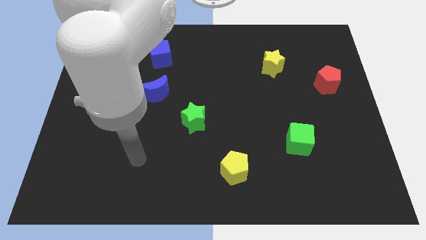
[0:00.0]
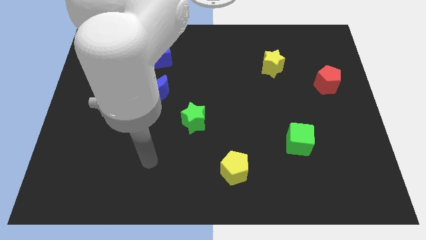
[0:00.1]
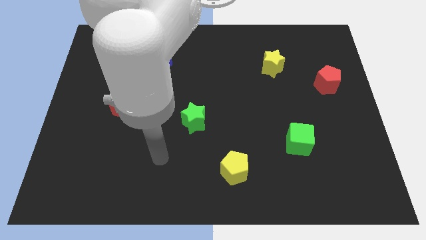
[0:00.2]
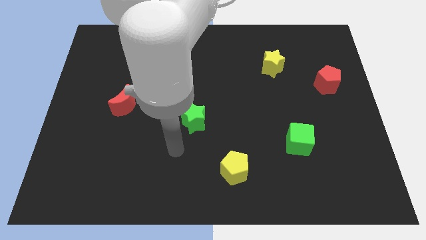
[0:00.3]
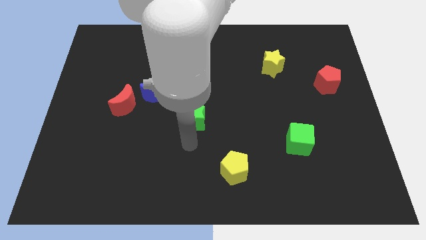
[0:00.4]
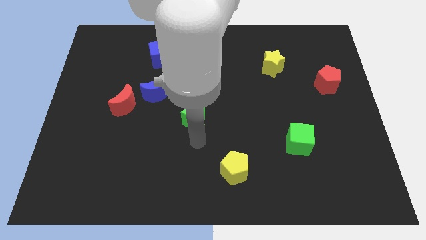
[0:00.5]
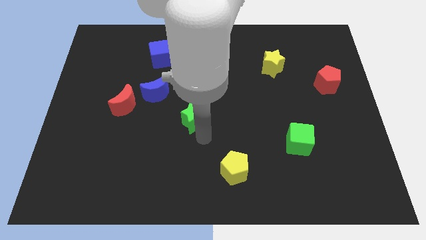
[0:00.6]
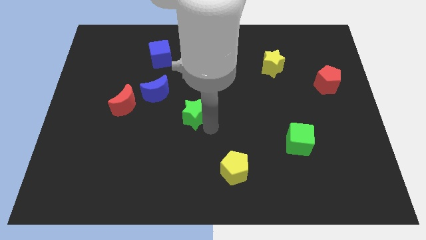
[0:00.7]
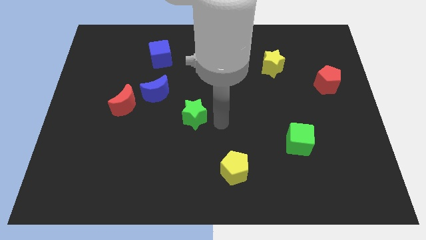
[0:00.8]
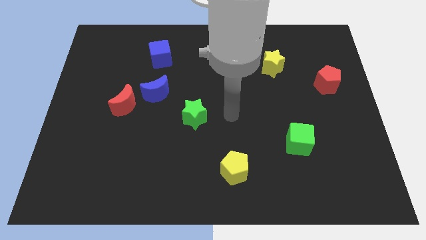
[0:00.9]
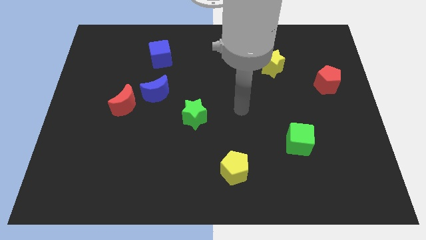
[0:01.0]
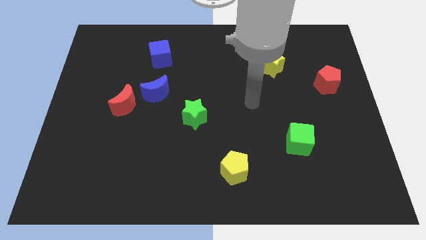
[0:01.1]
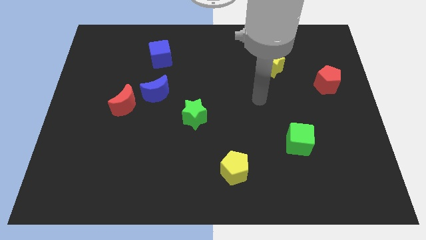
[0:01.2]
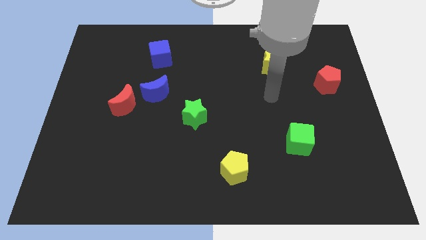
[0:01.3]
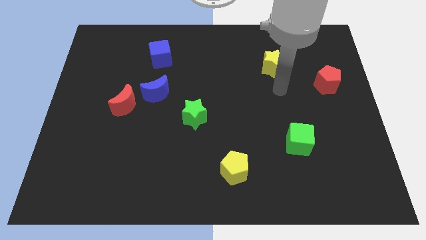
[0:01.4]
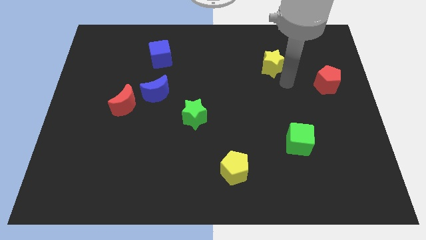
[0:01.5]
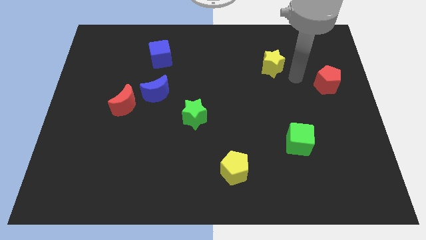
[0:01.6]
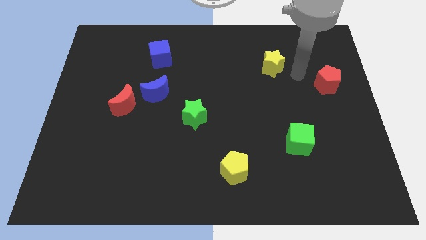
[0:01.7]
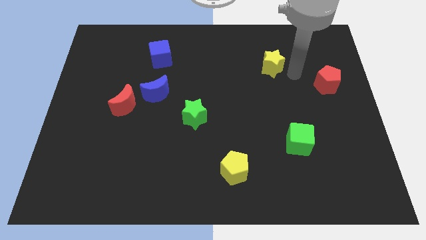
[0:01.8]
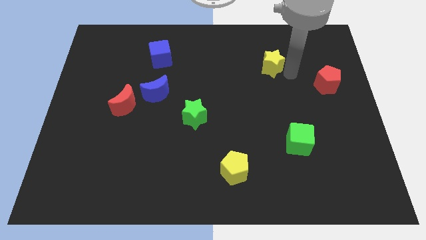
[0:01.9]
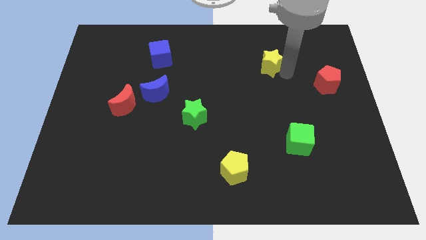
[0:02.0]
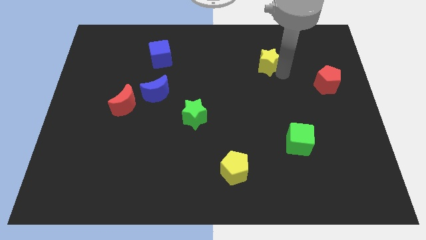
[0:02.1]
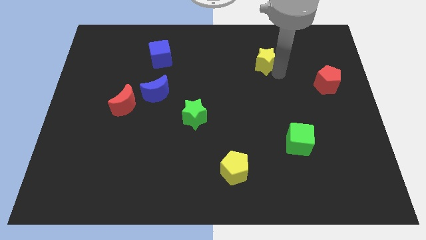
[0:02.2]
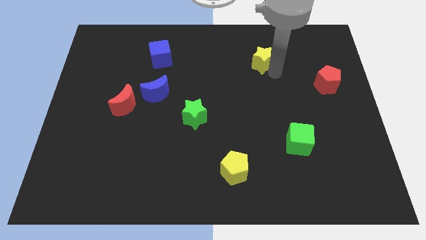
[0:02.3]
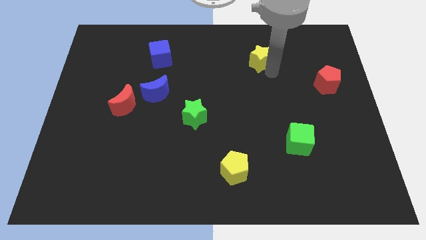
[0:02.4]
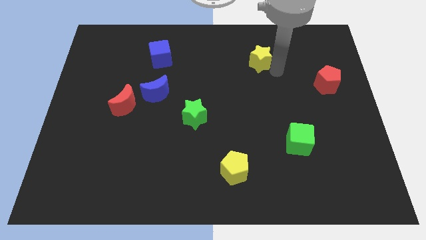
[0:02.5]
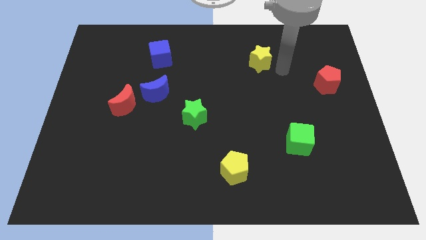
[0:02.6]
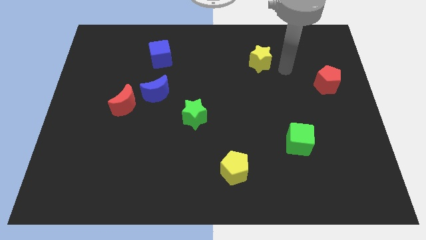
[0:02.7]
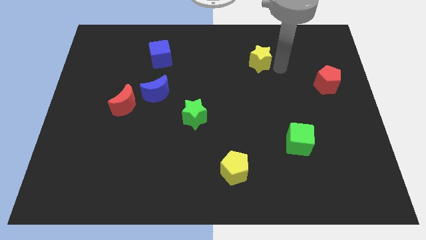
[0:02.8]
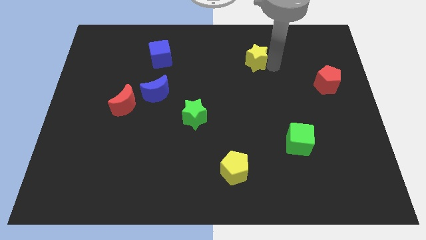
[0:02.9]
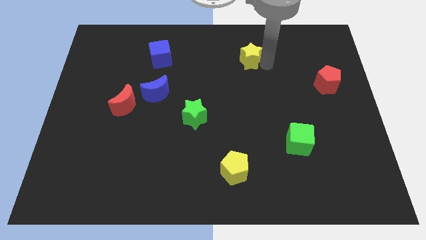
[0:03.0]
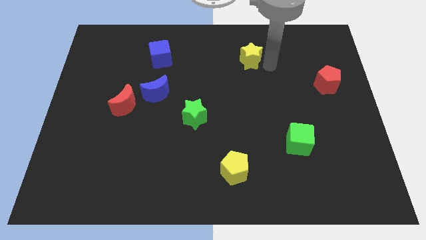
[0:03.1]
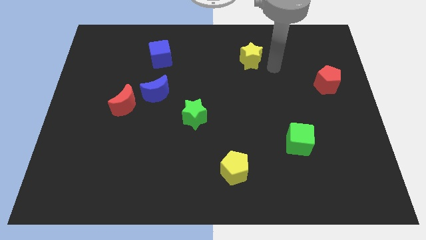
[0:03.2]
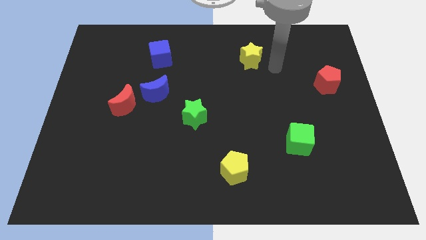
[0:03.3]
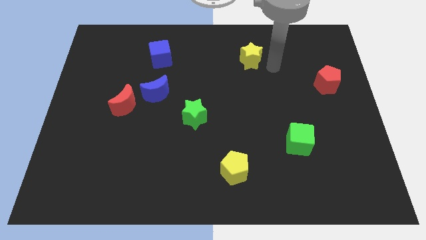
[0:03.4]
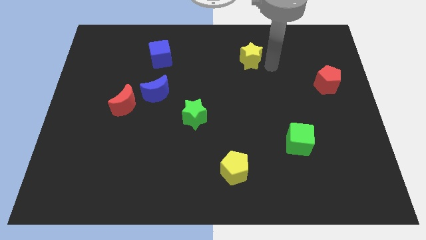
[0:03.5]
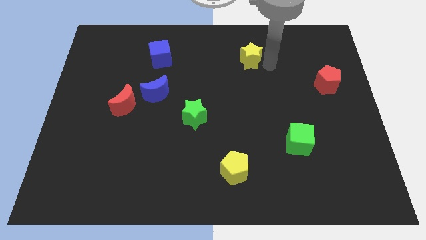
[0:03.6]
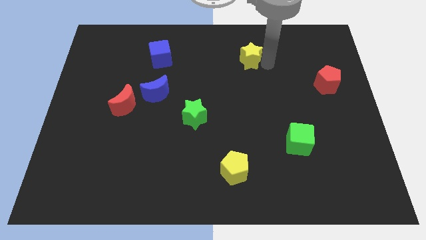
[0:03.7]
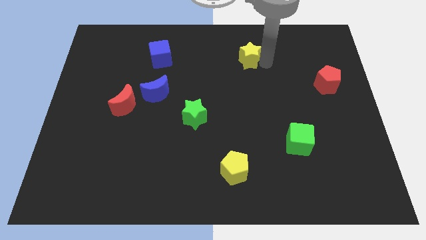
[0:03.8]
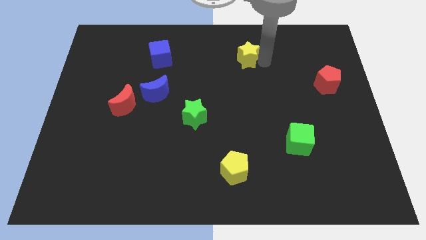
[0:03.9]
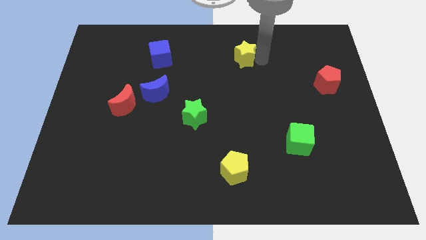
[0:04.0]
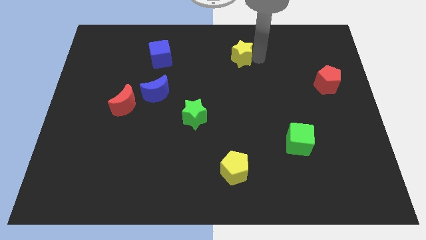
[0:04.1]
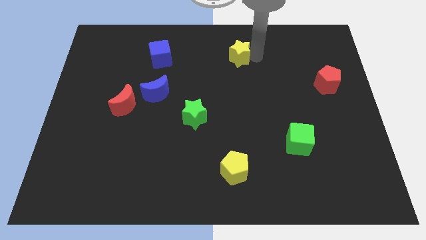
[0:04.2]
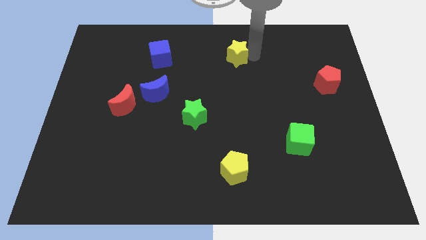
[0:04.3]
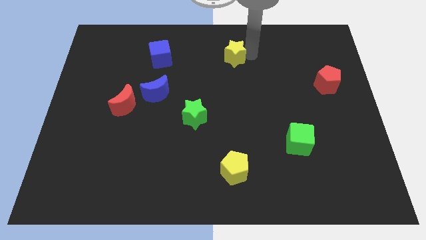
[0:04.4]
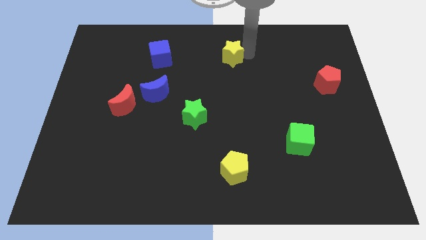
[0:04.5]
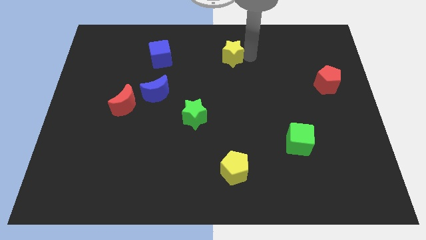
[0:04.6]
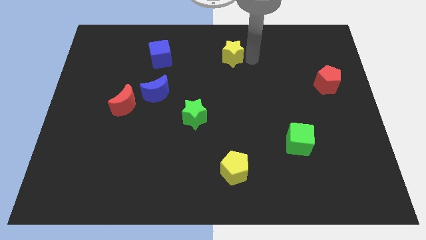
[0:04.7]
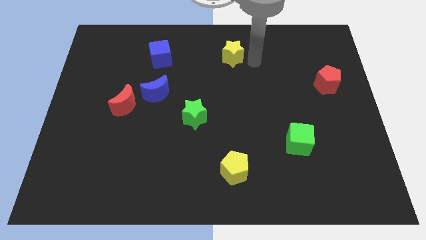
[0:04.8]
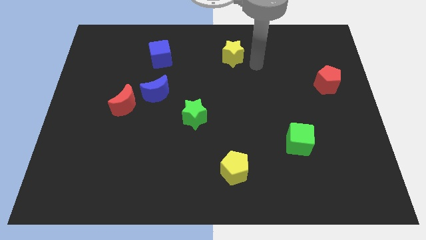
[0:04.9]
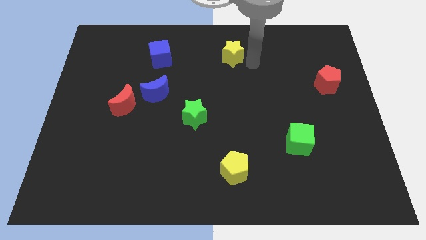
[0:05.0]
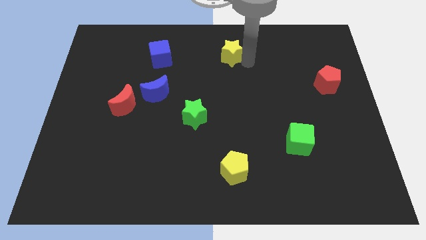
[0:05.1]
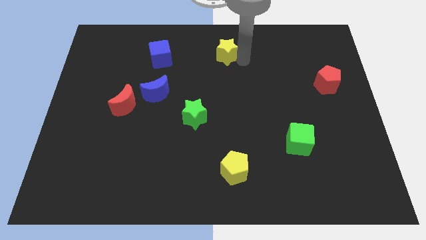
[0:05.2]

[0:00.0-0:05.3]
move the yellow star to the top side
